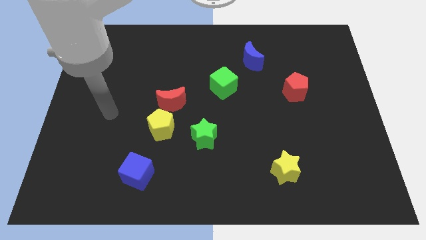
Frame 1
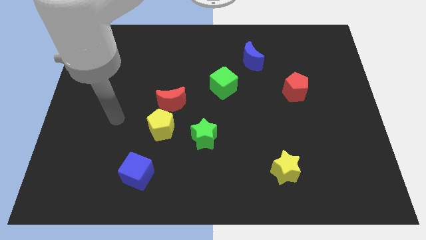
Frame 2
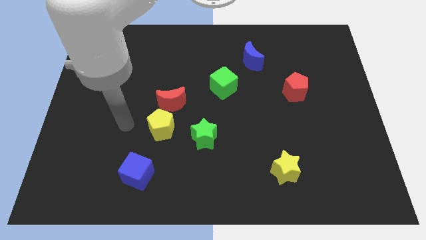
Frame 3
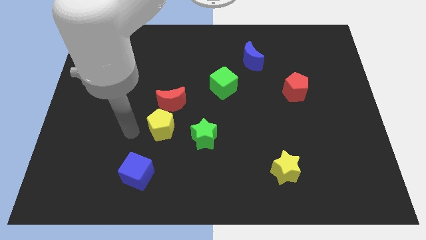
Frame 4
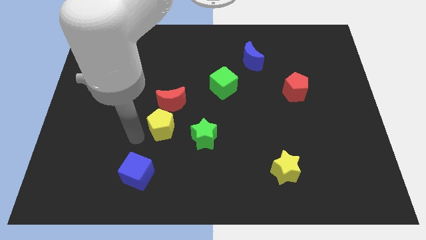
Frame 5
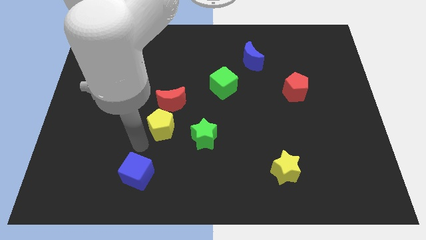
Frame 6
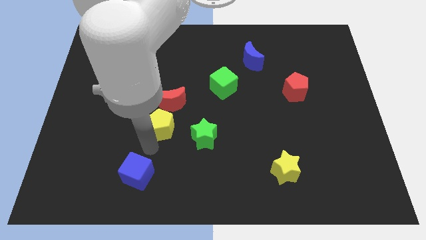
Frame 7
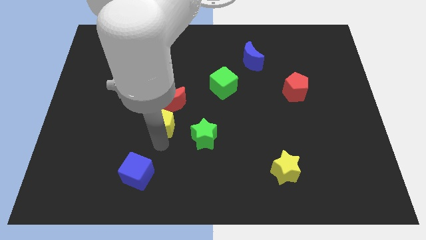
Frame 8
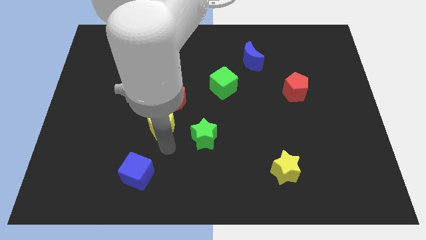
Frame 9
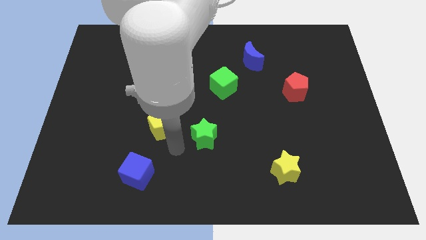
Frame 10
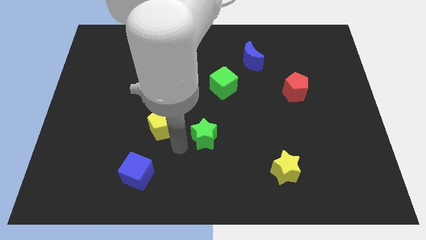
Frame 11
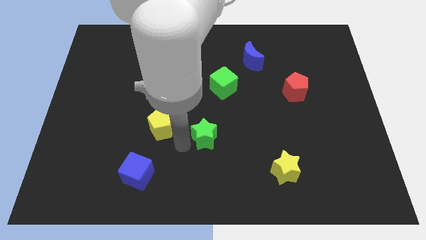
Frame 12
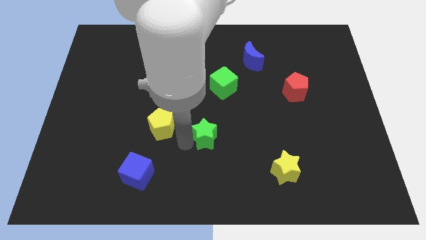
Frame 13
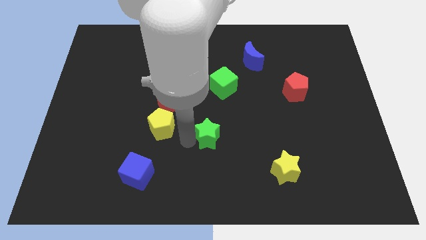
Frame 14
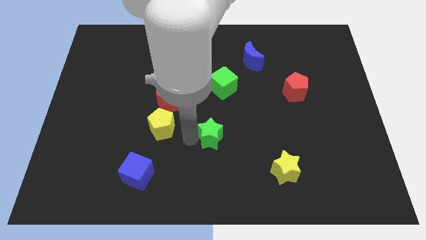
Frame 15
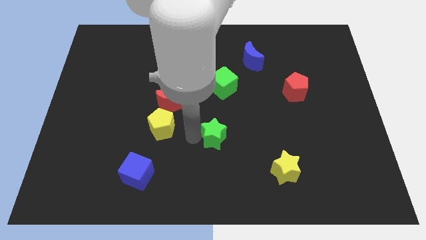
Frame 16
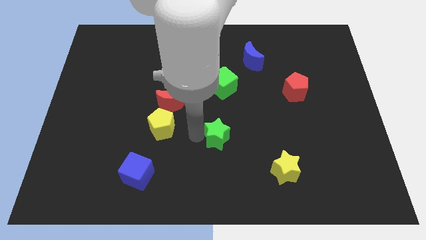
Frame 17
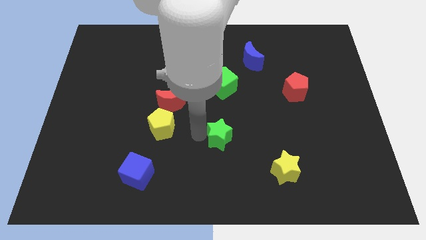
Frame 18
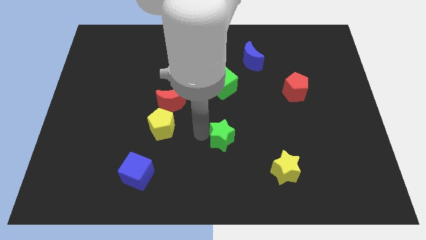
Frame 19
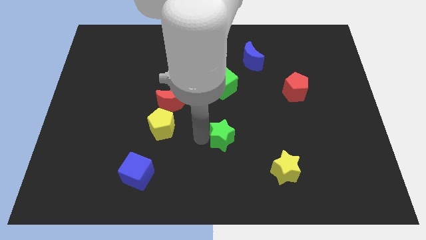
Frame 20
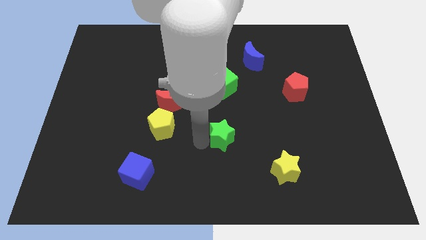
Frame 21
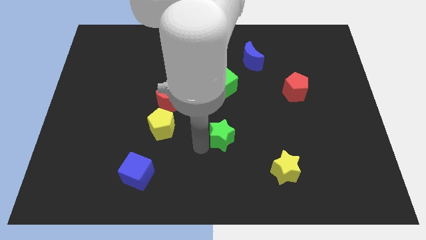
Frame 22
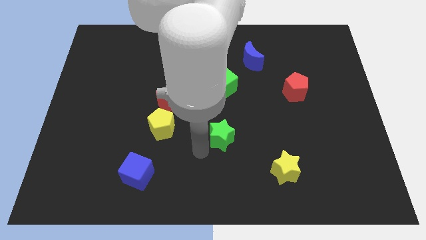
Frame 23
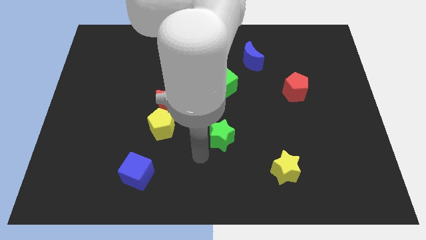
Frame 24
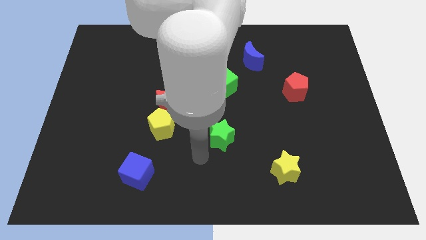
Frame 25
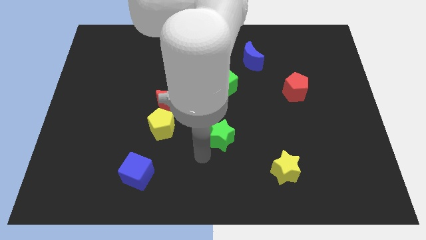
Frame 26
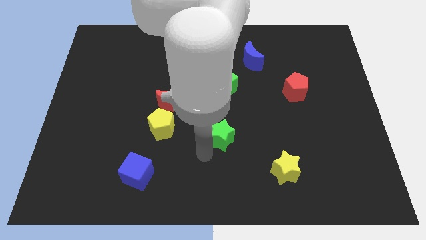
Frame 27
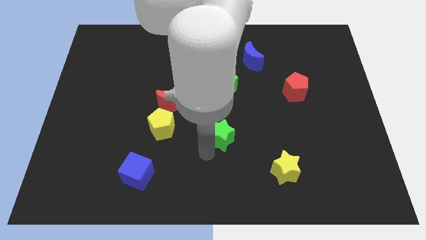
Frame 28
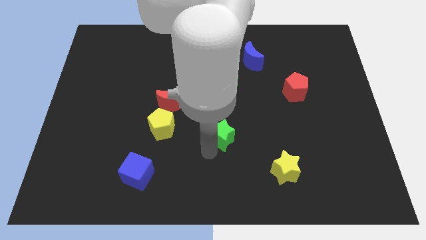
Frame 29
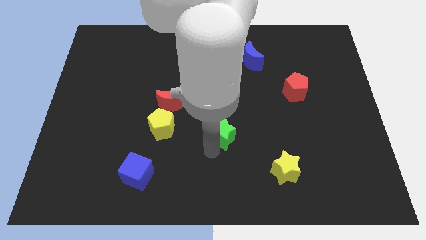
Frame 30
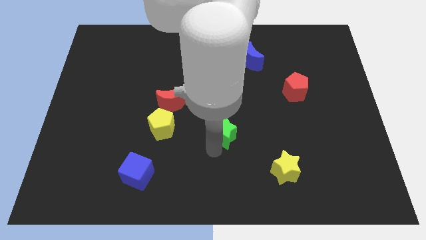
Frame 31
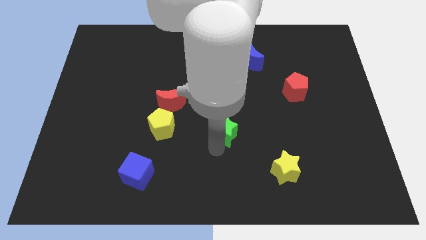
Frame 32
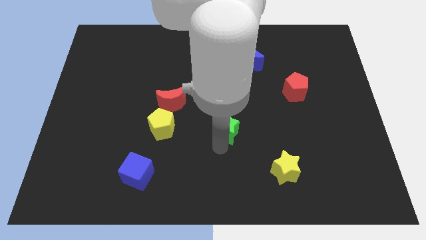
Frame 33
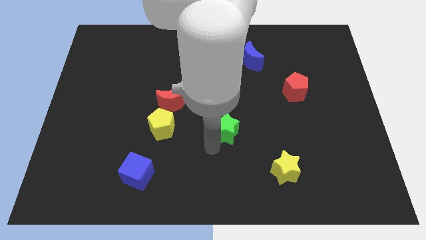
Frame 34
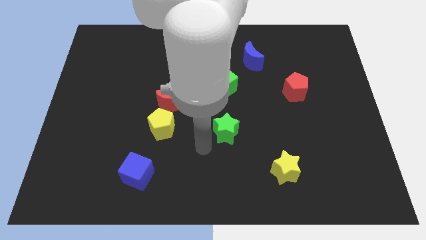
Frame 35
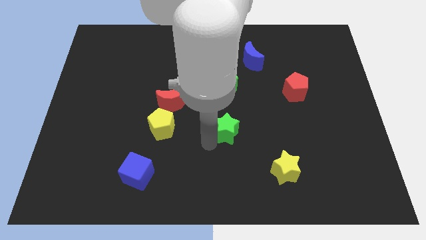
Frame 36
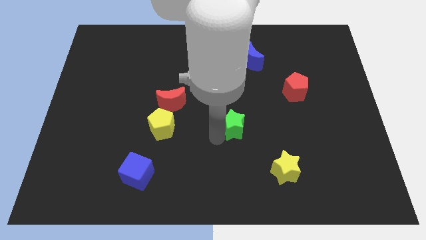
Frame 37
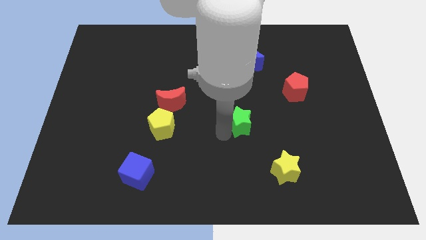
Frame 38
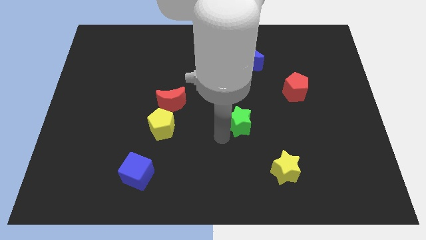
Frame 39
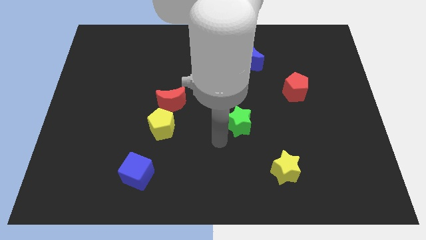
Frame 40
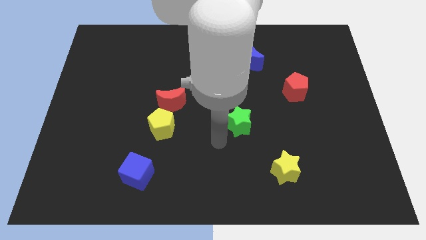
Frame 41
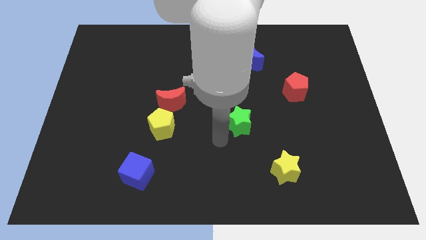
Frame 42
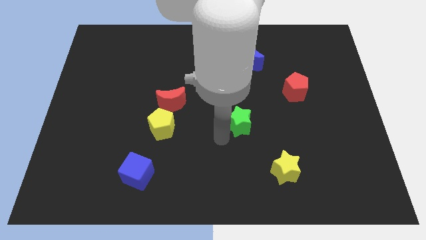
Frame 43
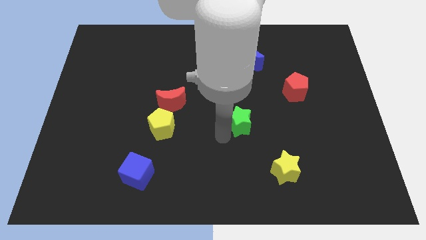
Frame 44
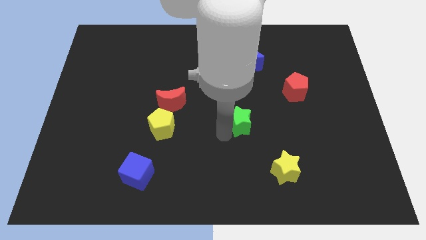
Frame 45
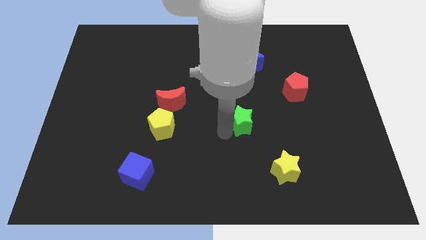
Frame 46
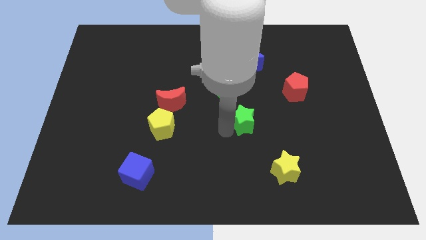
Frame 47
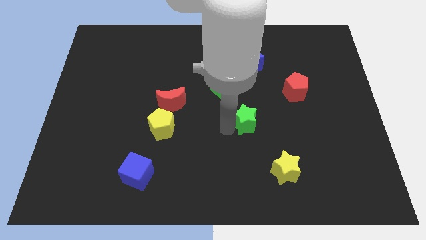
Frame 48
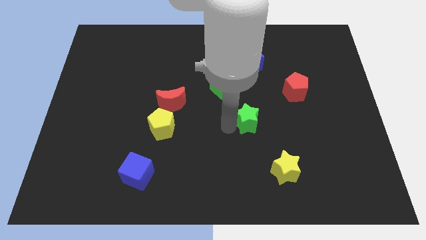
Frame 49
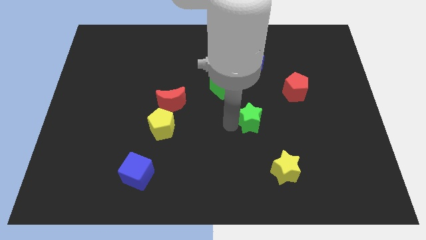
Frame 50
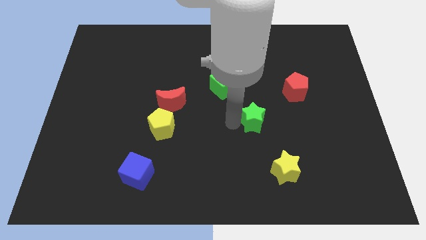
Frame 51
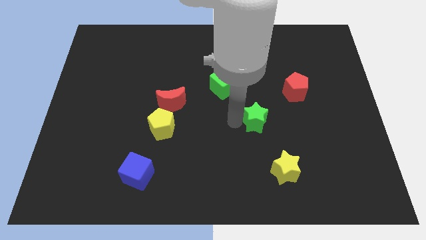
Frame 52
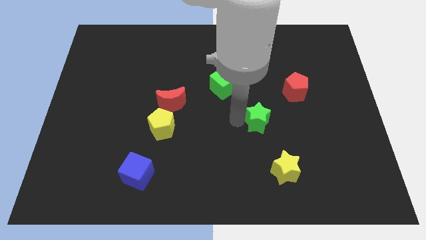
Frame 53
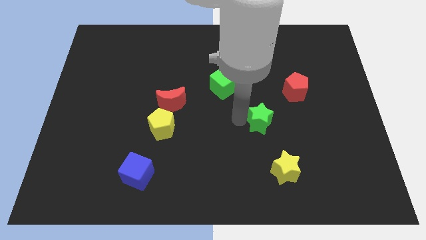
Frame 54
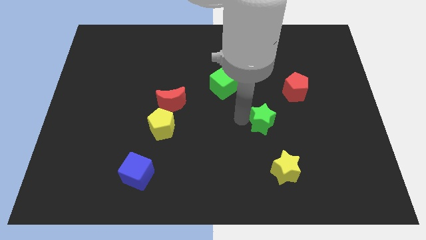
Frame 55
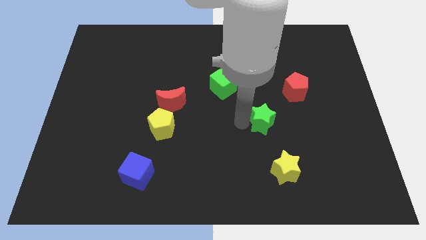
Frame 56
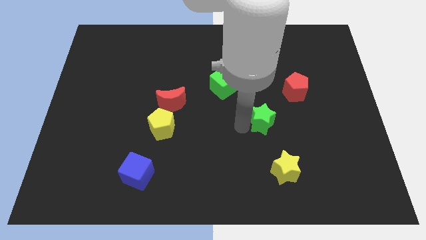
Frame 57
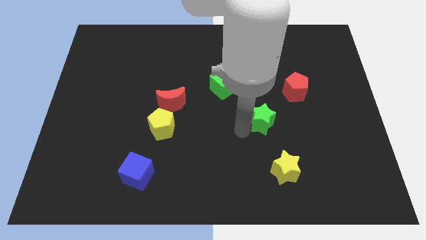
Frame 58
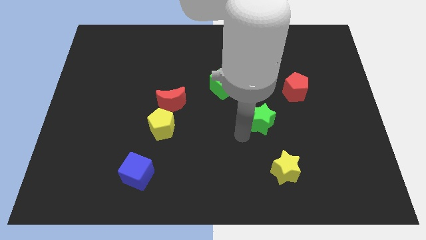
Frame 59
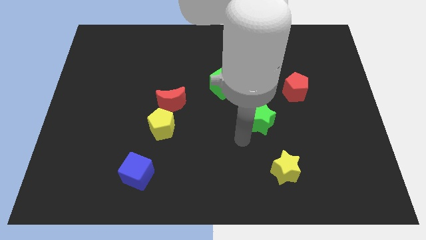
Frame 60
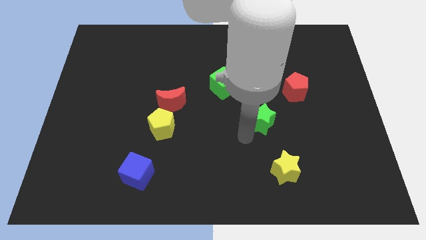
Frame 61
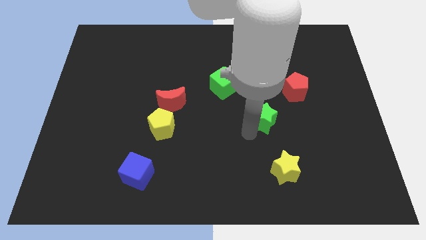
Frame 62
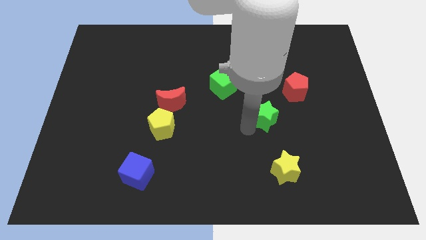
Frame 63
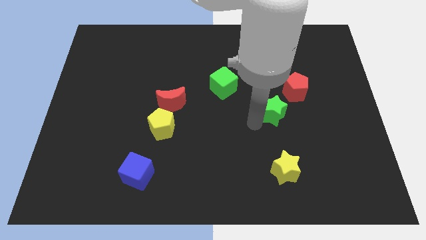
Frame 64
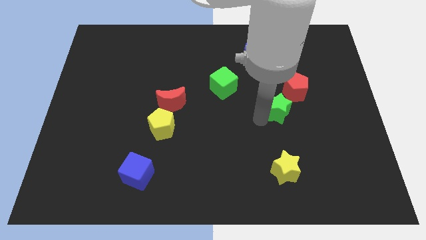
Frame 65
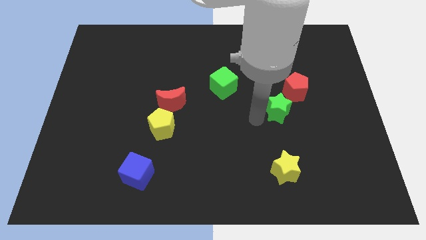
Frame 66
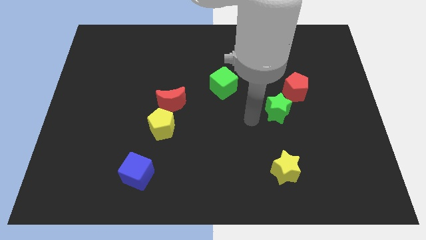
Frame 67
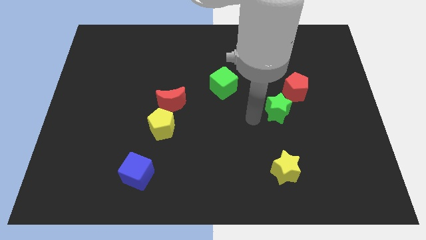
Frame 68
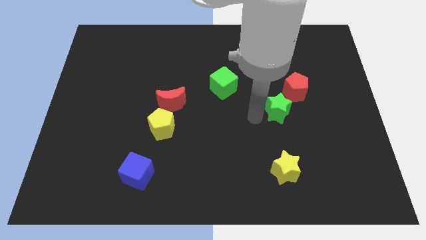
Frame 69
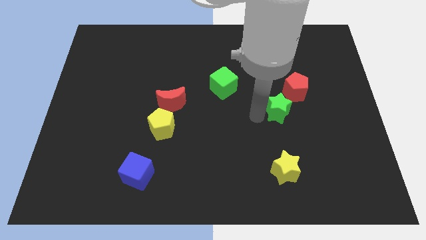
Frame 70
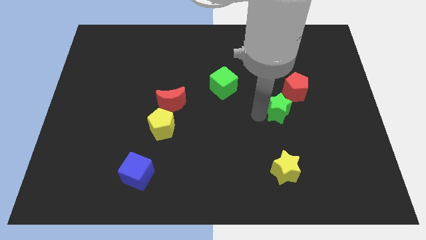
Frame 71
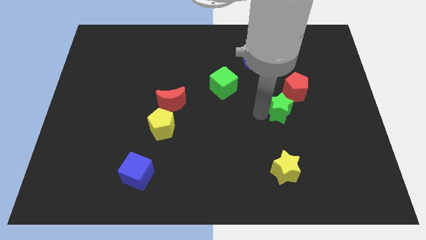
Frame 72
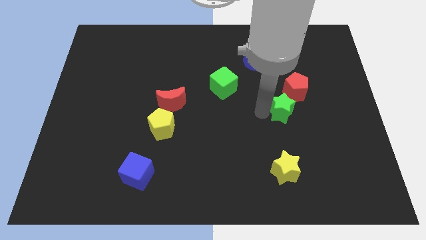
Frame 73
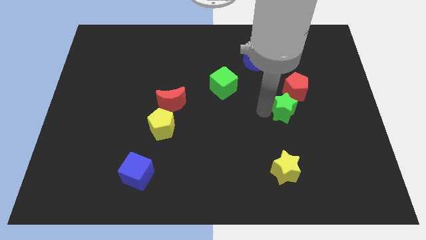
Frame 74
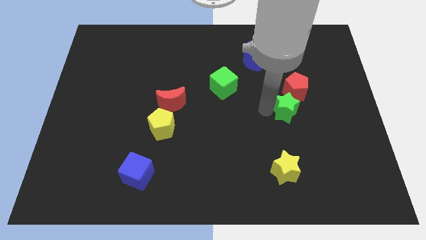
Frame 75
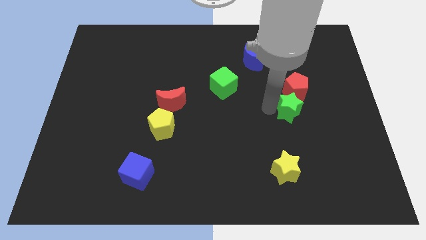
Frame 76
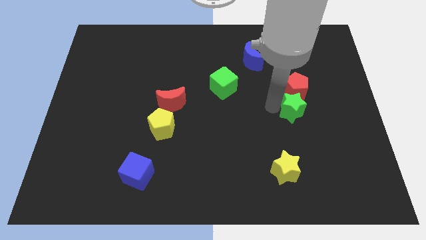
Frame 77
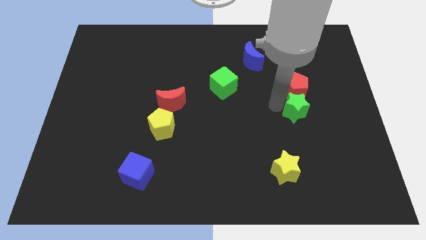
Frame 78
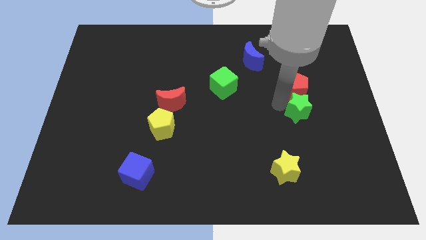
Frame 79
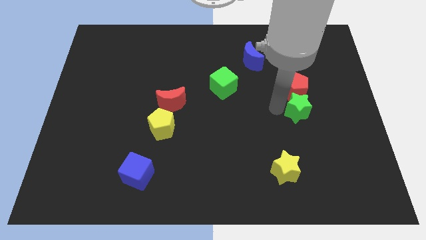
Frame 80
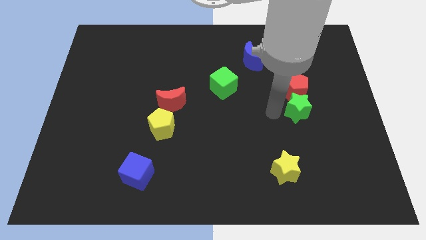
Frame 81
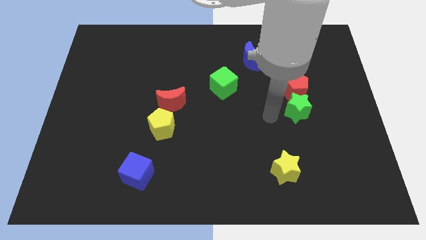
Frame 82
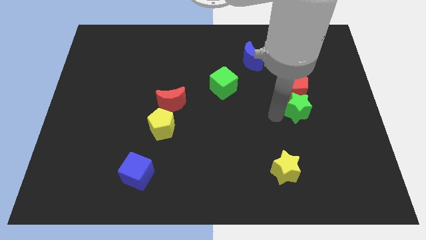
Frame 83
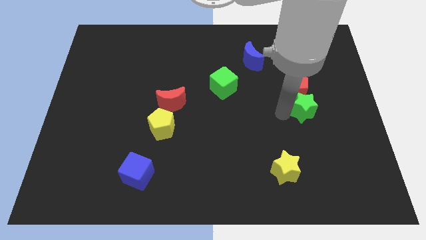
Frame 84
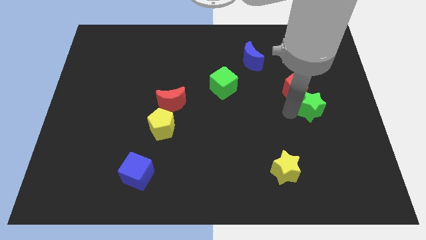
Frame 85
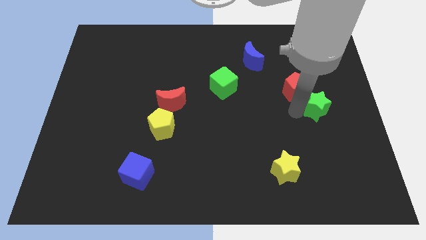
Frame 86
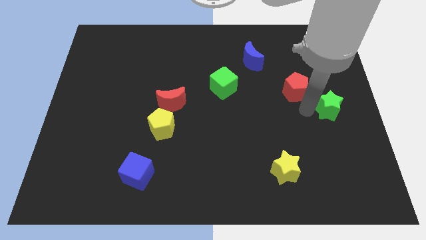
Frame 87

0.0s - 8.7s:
push the green star to the center right
